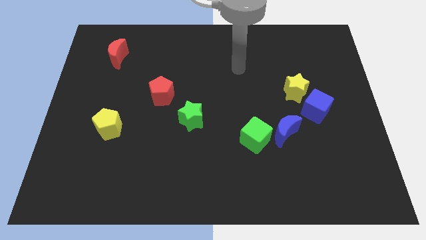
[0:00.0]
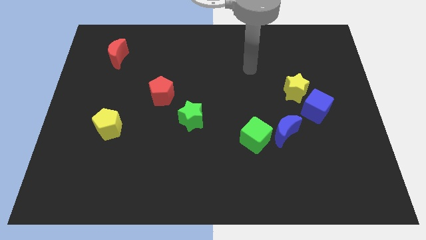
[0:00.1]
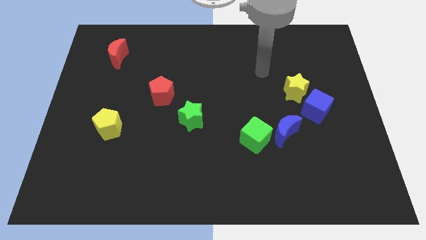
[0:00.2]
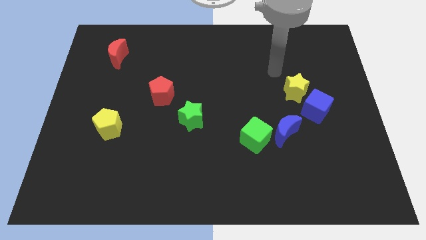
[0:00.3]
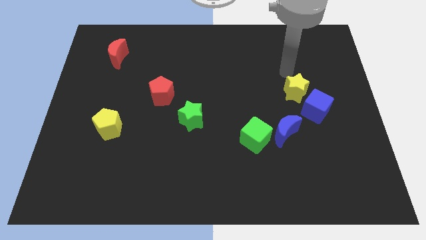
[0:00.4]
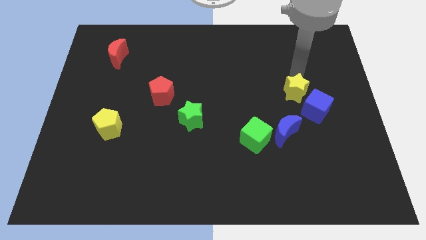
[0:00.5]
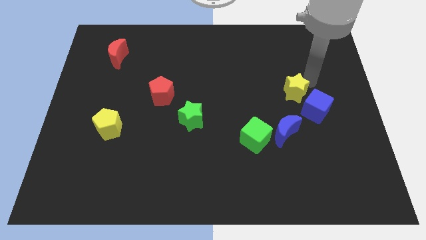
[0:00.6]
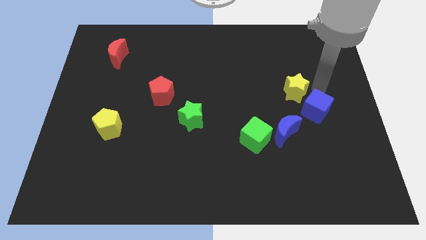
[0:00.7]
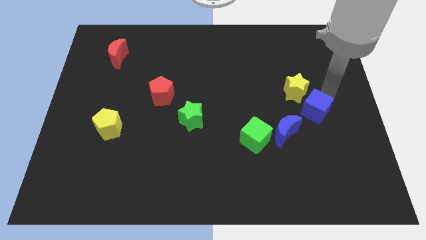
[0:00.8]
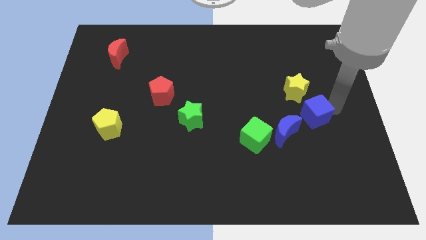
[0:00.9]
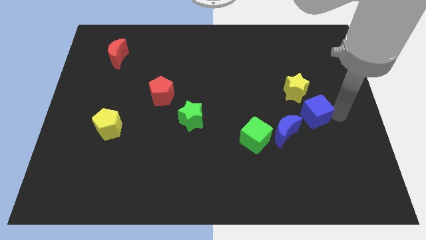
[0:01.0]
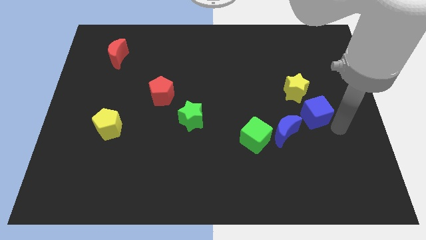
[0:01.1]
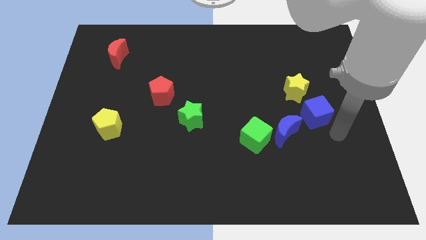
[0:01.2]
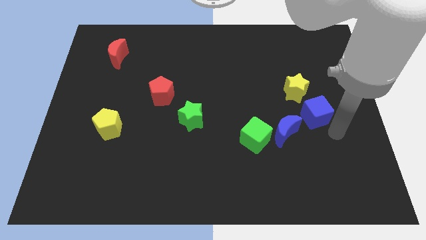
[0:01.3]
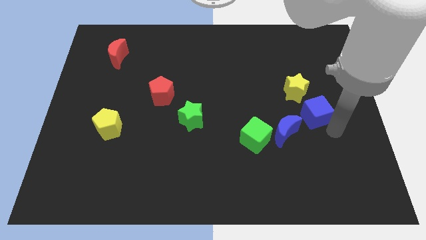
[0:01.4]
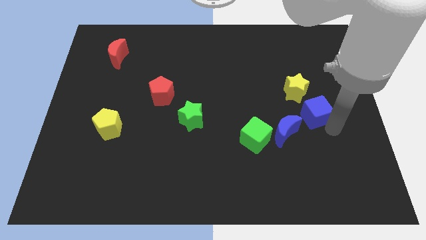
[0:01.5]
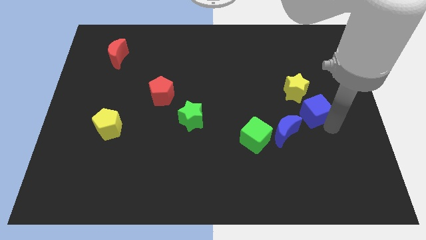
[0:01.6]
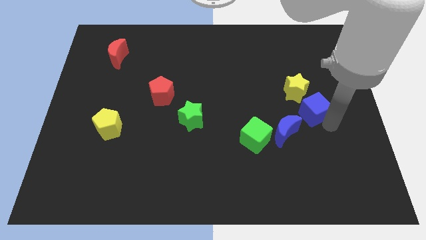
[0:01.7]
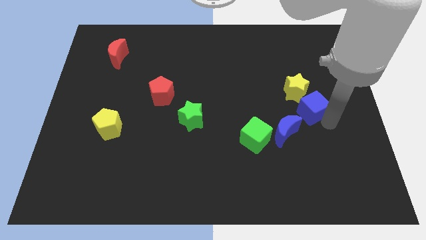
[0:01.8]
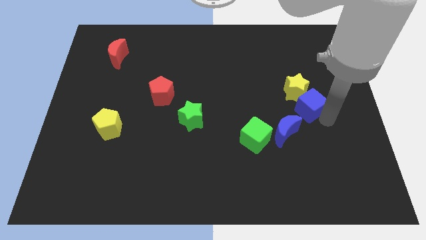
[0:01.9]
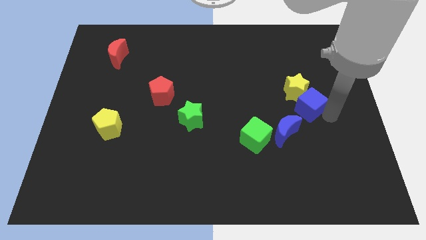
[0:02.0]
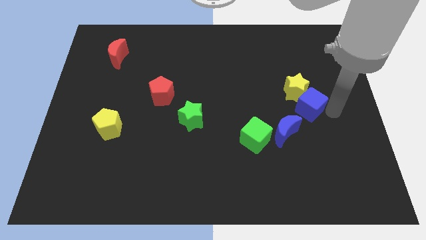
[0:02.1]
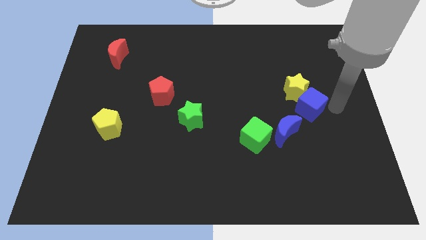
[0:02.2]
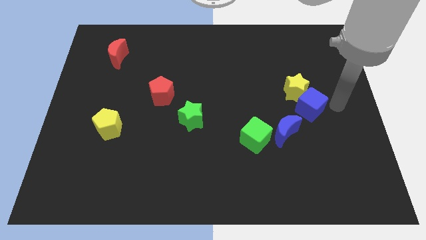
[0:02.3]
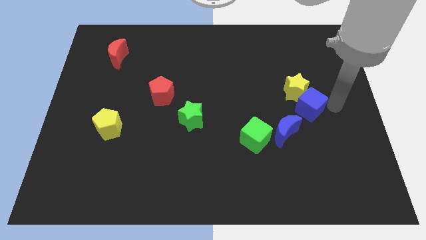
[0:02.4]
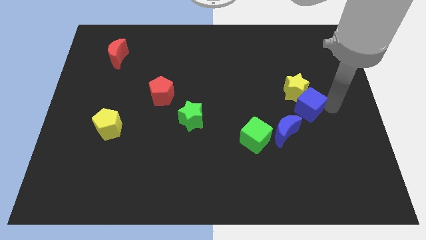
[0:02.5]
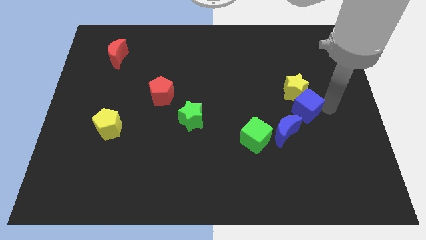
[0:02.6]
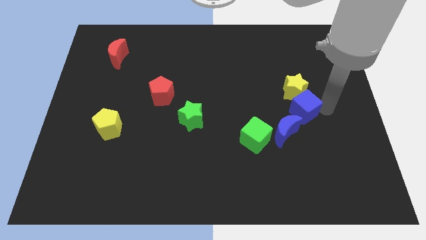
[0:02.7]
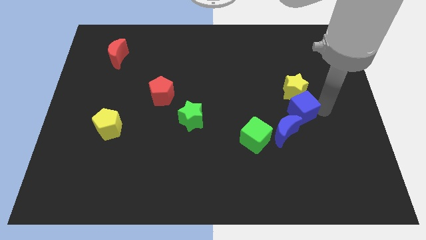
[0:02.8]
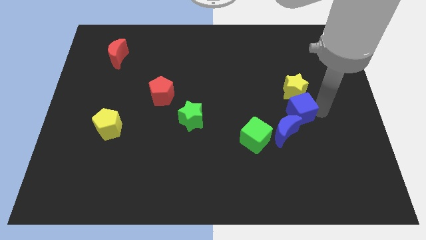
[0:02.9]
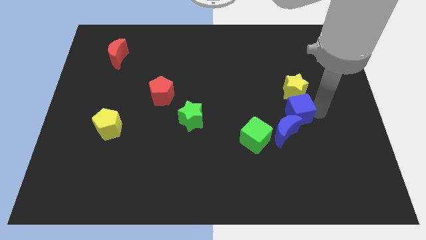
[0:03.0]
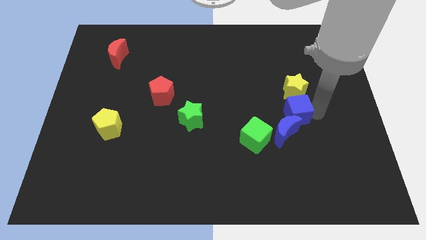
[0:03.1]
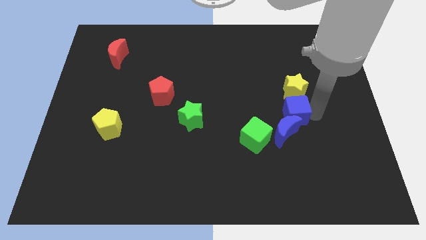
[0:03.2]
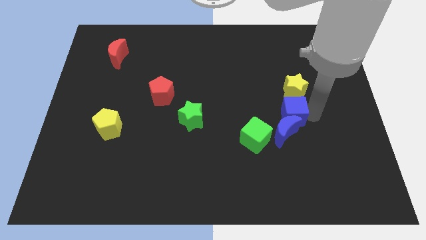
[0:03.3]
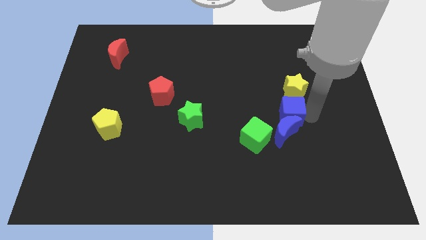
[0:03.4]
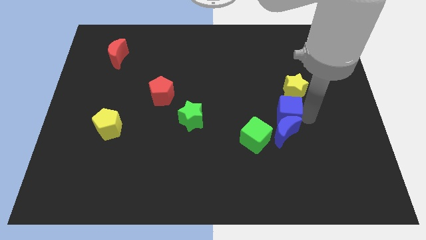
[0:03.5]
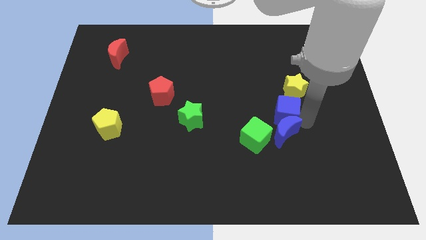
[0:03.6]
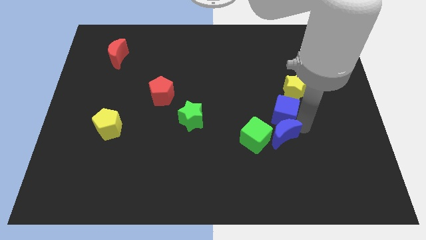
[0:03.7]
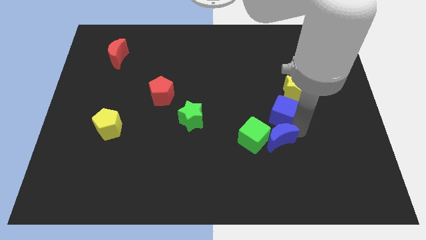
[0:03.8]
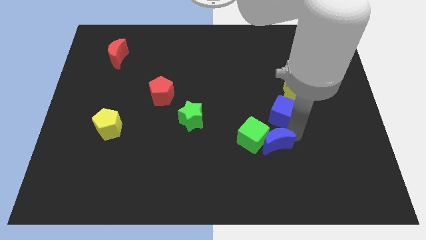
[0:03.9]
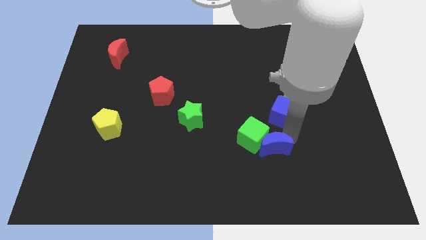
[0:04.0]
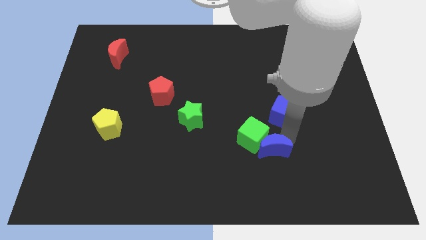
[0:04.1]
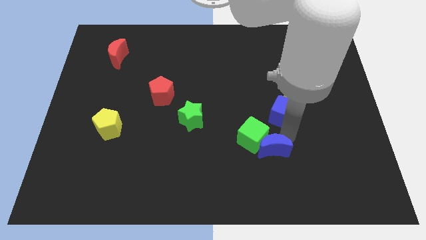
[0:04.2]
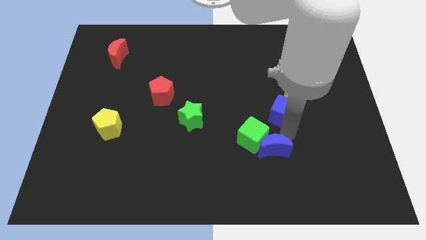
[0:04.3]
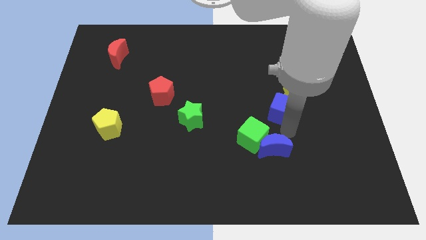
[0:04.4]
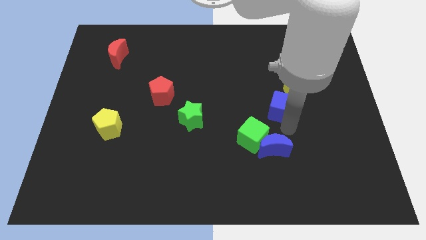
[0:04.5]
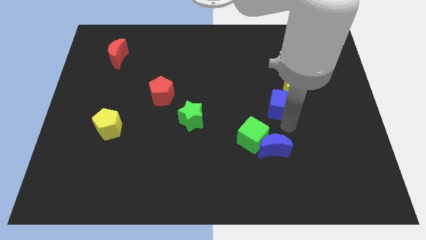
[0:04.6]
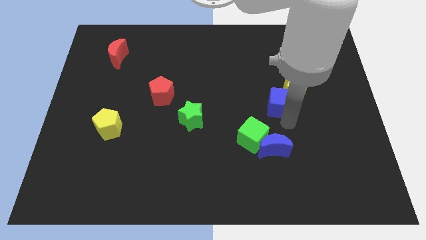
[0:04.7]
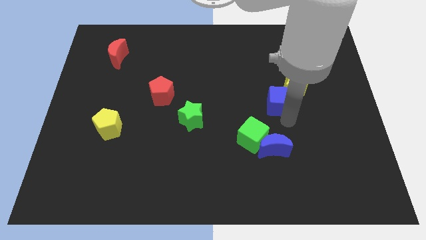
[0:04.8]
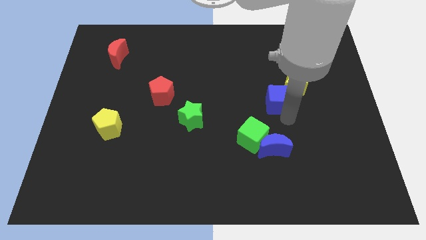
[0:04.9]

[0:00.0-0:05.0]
slide the blue cube up and then left a bit

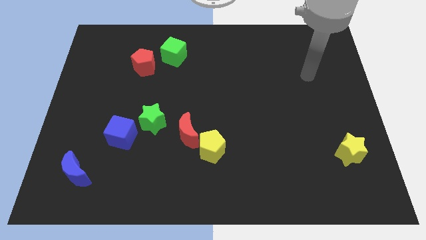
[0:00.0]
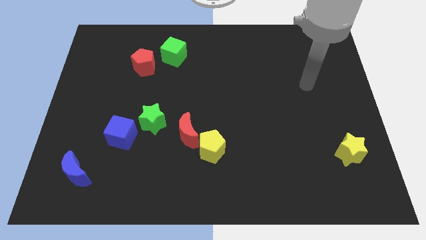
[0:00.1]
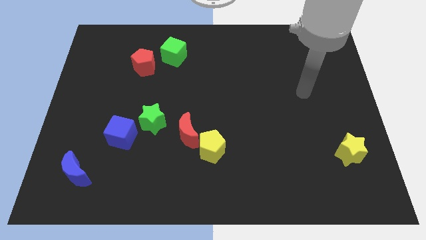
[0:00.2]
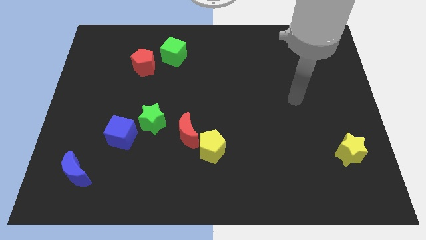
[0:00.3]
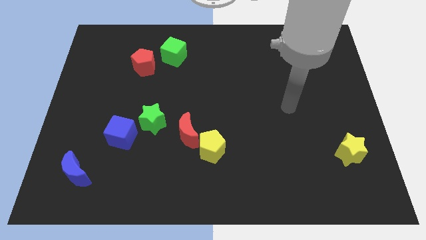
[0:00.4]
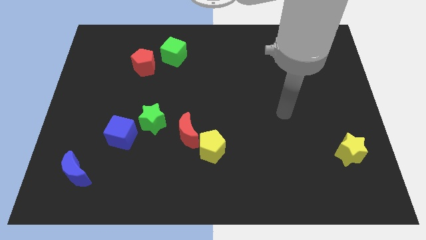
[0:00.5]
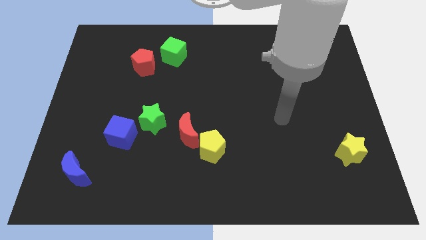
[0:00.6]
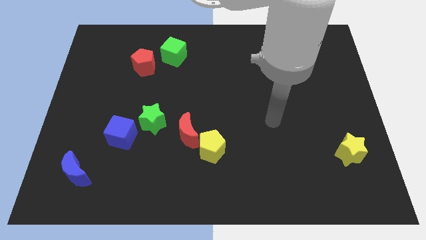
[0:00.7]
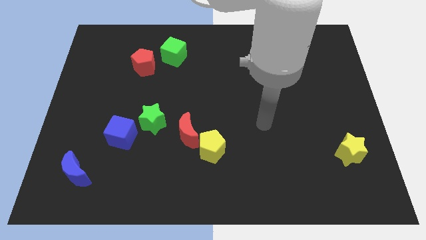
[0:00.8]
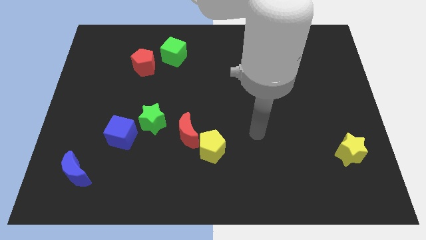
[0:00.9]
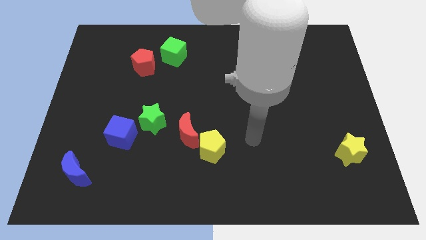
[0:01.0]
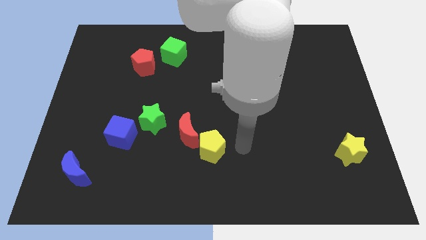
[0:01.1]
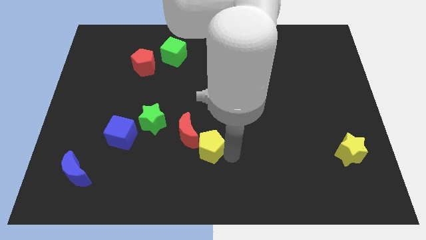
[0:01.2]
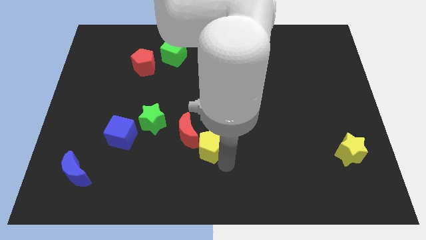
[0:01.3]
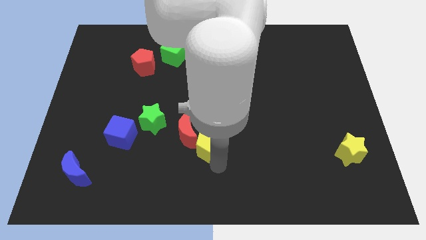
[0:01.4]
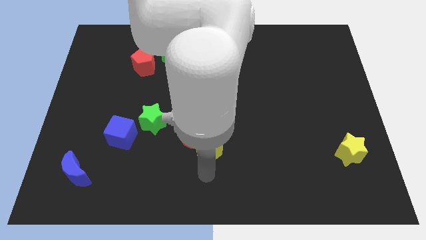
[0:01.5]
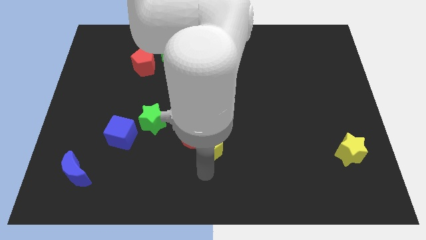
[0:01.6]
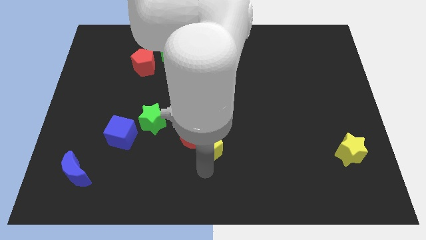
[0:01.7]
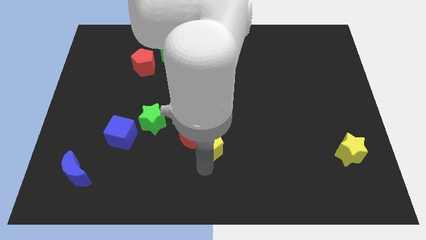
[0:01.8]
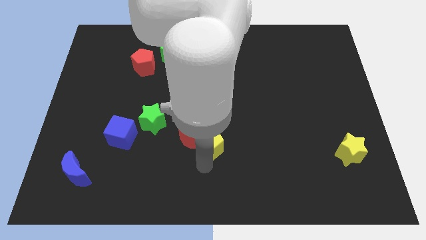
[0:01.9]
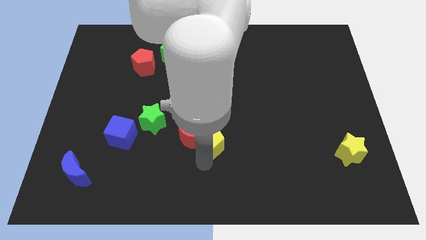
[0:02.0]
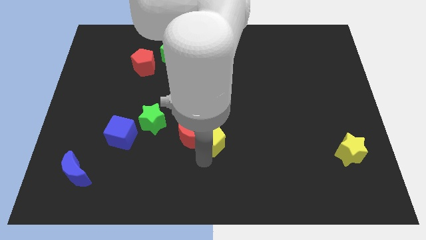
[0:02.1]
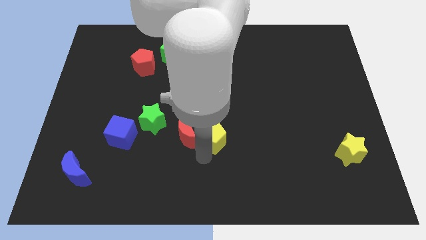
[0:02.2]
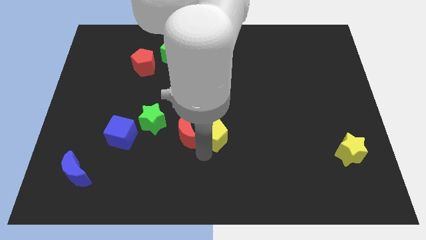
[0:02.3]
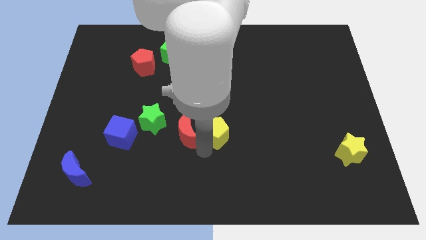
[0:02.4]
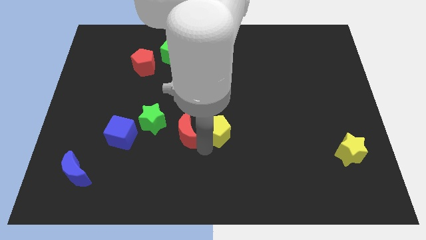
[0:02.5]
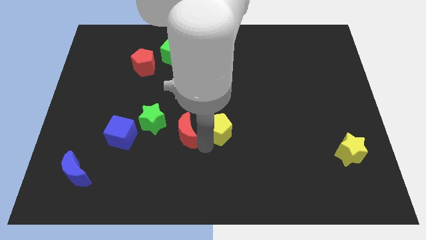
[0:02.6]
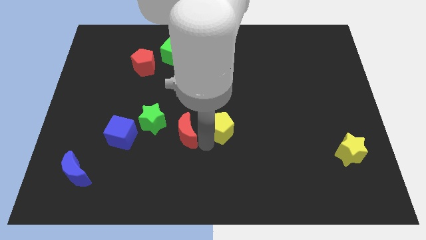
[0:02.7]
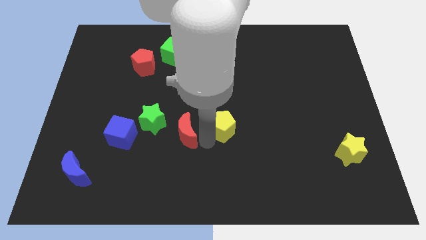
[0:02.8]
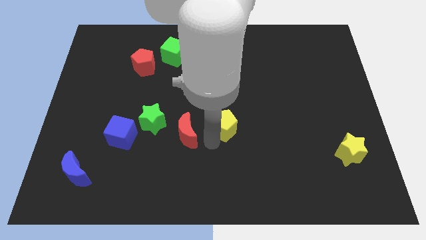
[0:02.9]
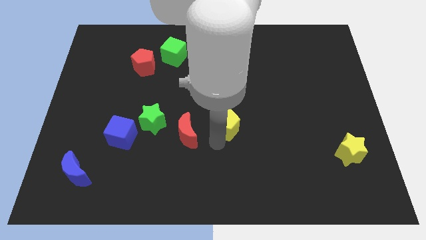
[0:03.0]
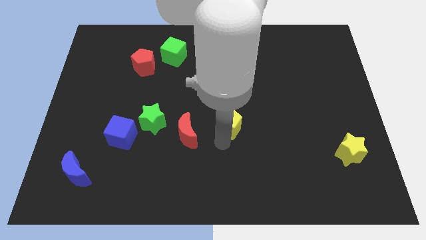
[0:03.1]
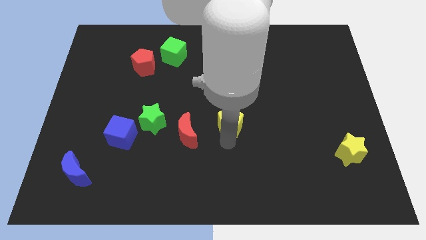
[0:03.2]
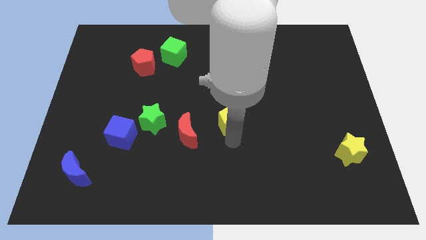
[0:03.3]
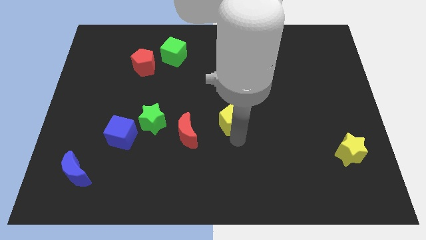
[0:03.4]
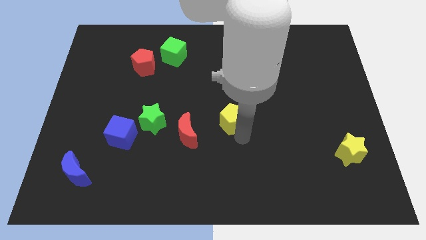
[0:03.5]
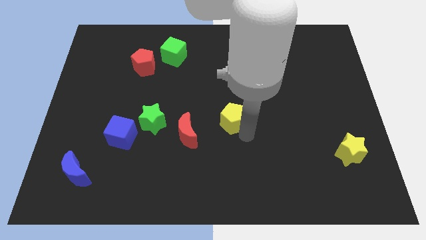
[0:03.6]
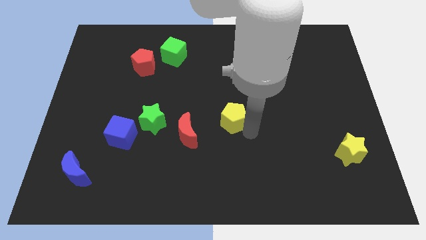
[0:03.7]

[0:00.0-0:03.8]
slightly push the yellow pentagon upwards
